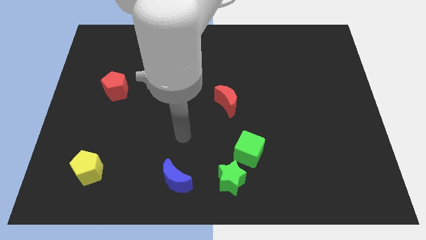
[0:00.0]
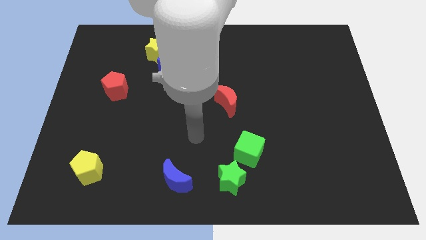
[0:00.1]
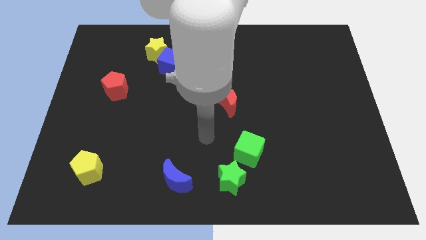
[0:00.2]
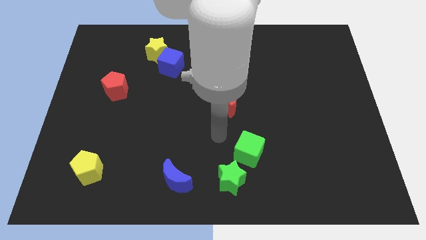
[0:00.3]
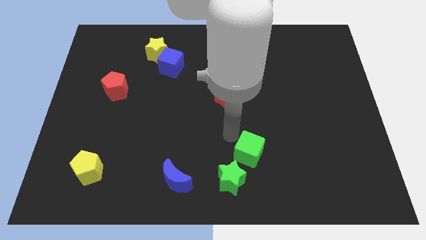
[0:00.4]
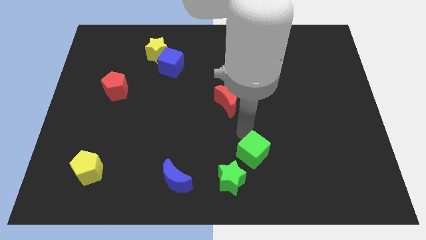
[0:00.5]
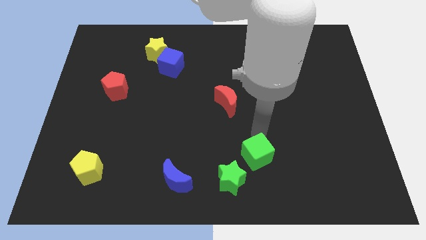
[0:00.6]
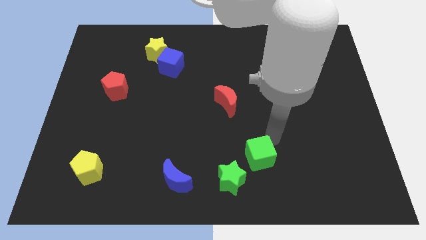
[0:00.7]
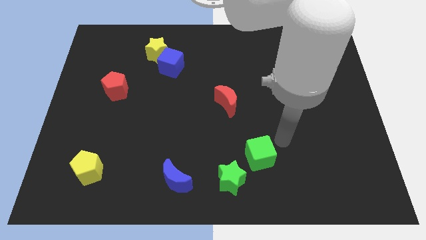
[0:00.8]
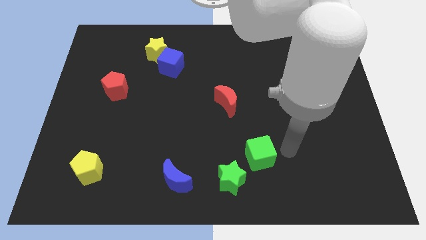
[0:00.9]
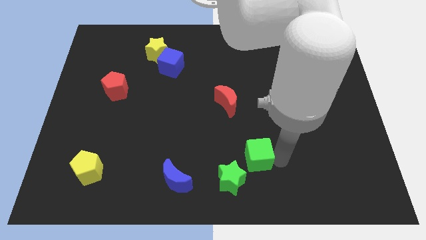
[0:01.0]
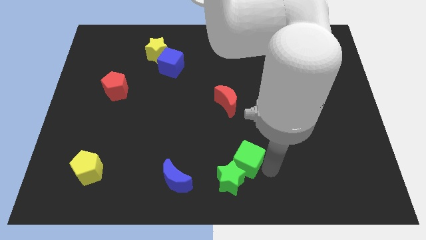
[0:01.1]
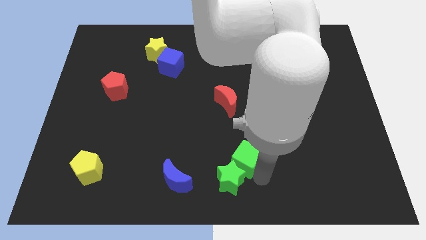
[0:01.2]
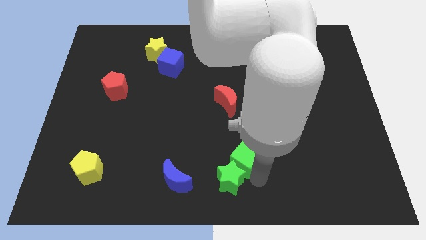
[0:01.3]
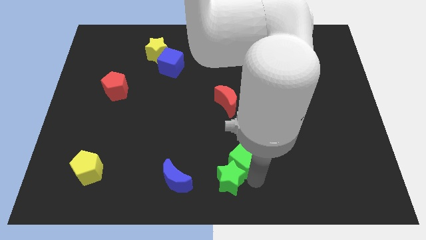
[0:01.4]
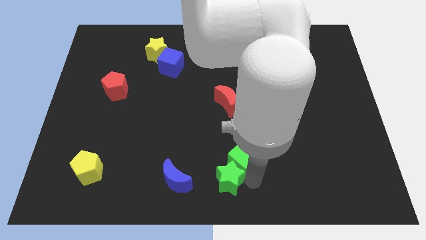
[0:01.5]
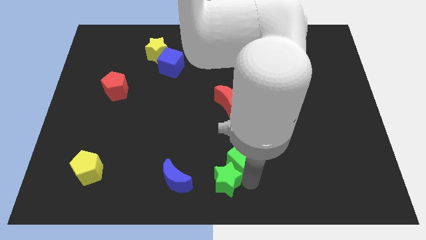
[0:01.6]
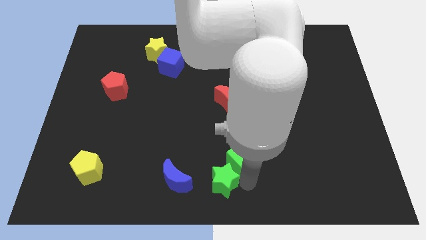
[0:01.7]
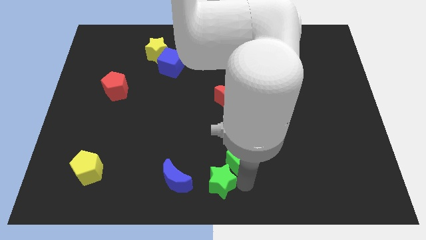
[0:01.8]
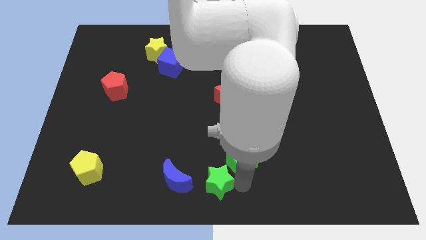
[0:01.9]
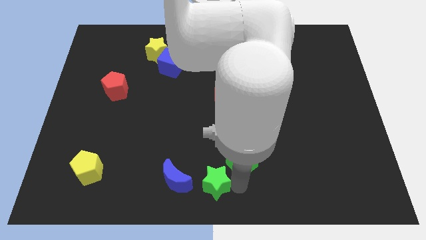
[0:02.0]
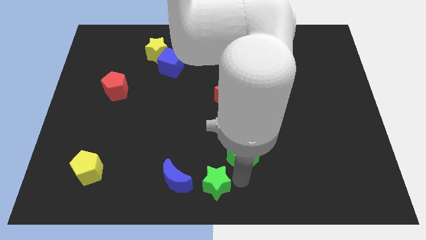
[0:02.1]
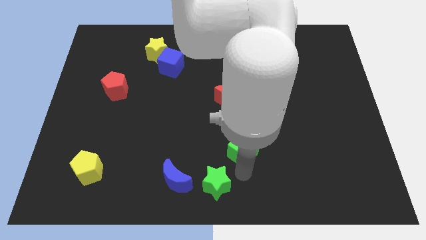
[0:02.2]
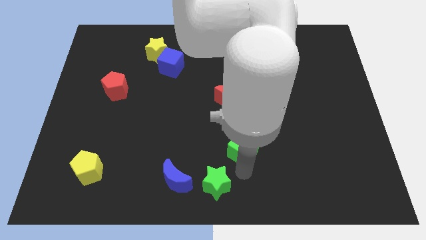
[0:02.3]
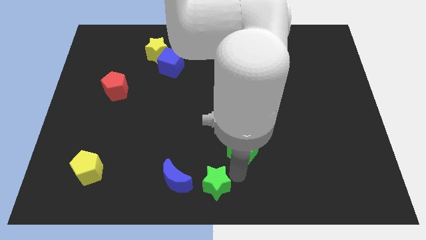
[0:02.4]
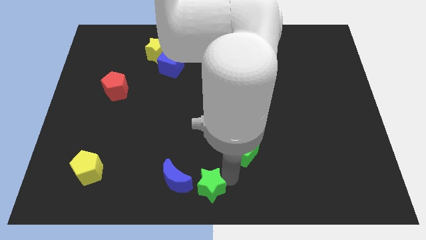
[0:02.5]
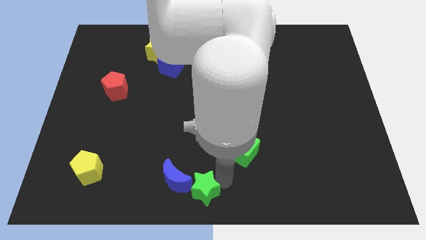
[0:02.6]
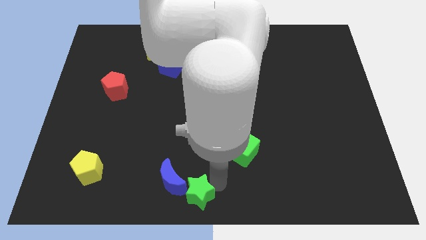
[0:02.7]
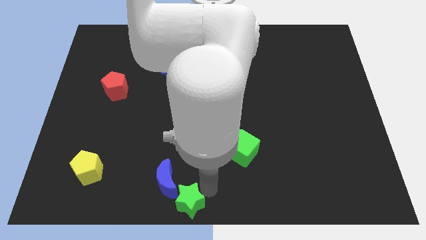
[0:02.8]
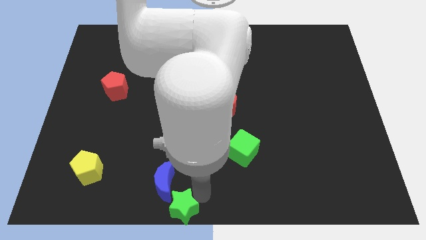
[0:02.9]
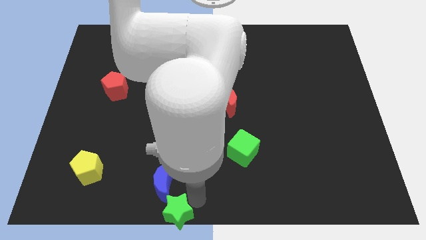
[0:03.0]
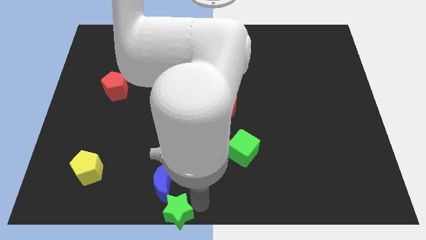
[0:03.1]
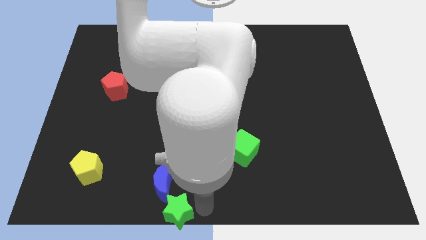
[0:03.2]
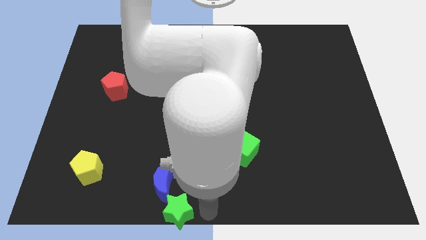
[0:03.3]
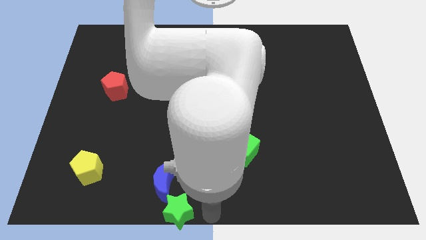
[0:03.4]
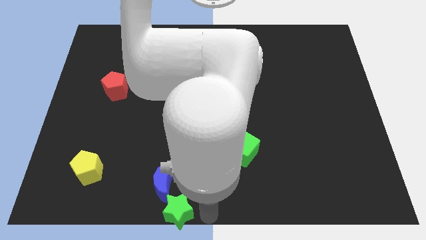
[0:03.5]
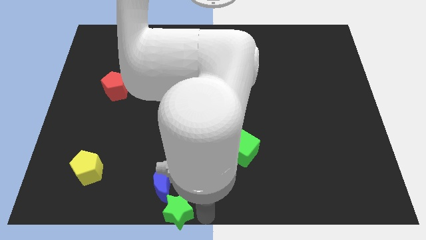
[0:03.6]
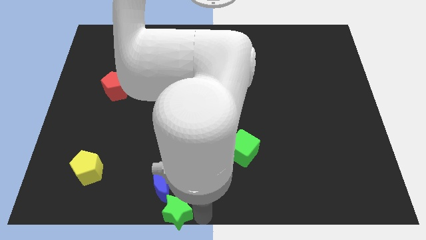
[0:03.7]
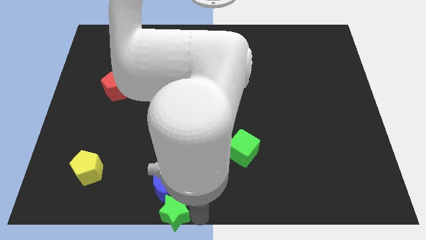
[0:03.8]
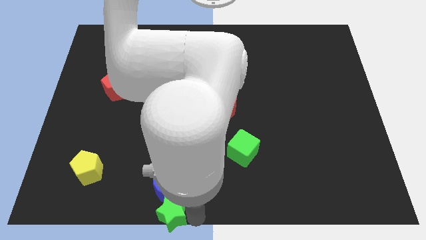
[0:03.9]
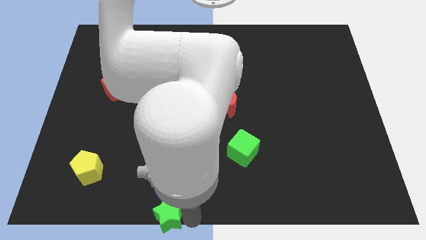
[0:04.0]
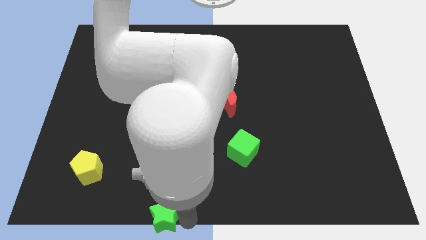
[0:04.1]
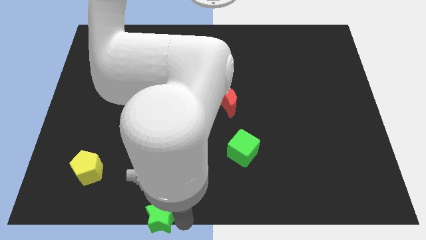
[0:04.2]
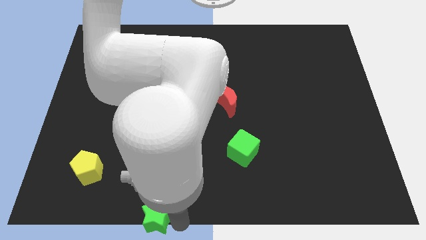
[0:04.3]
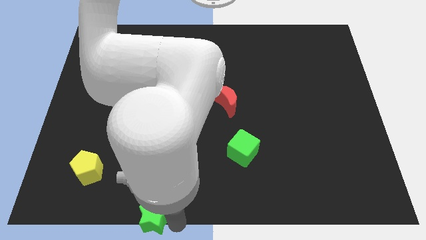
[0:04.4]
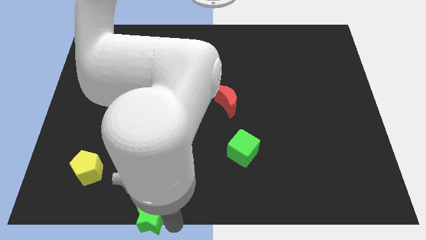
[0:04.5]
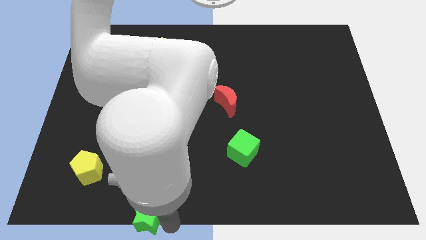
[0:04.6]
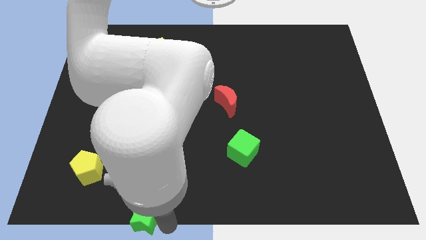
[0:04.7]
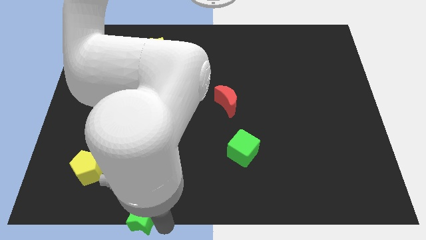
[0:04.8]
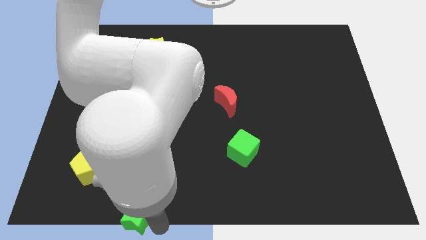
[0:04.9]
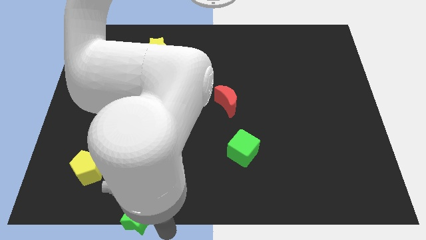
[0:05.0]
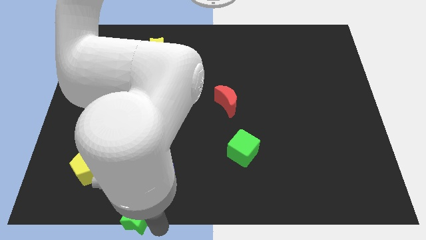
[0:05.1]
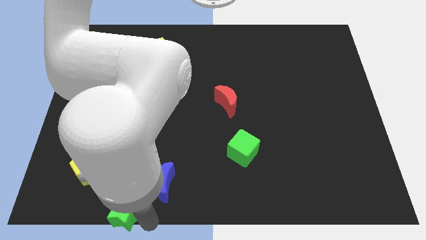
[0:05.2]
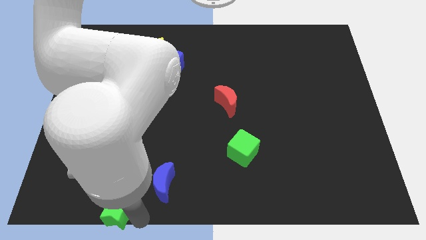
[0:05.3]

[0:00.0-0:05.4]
move the green star left

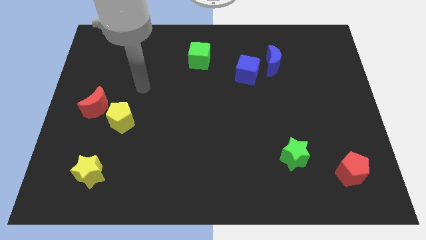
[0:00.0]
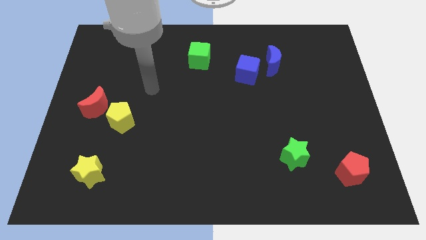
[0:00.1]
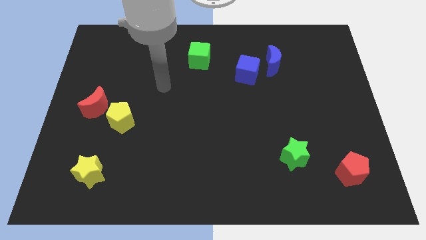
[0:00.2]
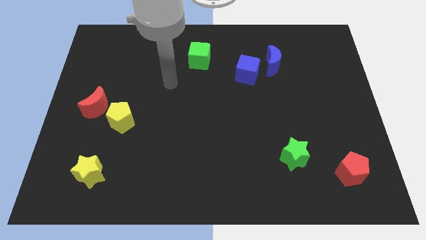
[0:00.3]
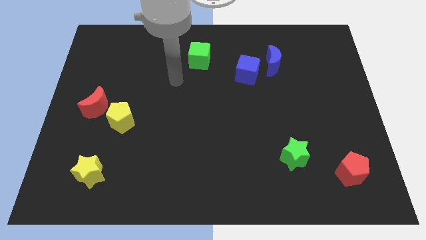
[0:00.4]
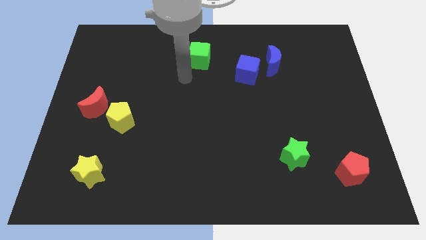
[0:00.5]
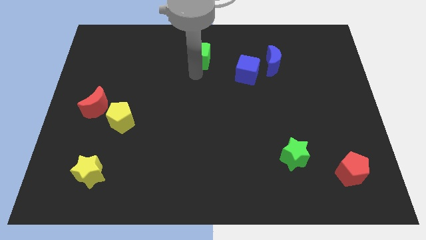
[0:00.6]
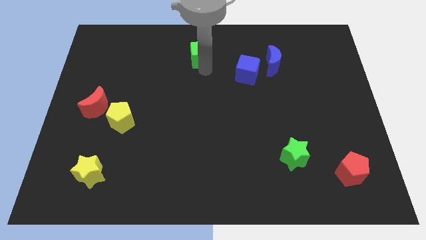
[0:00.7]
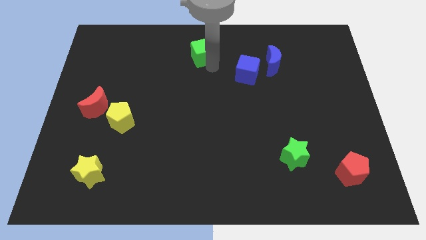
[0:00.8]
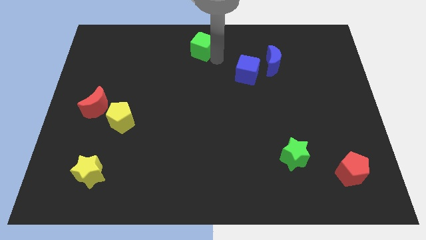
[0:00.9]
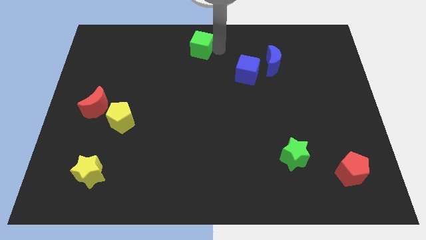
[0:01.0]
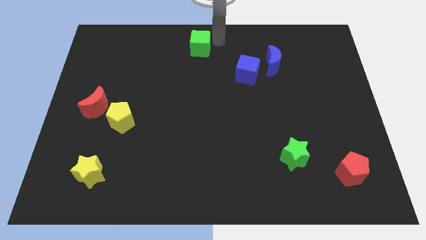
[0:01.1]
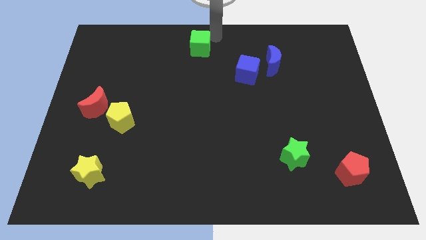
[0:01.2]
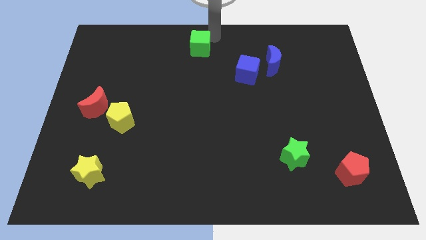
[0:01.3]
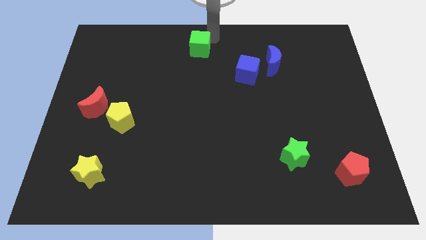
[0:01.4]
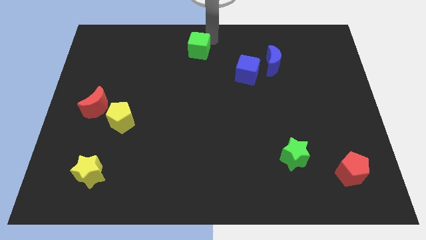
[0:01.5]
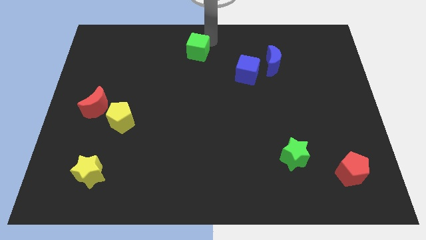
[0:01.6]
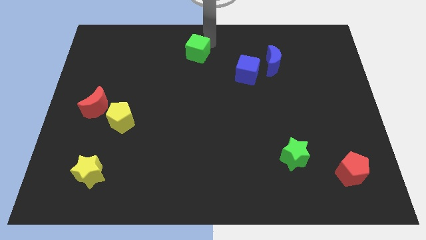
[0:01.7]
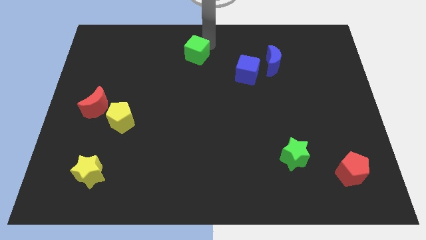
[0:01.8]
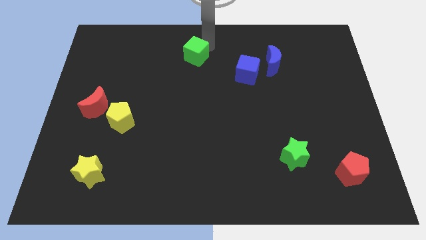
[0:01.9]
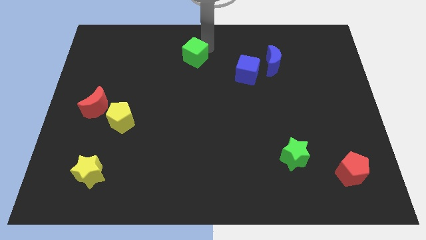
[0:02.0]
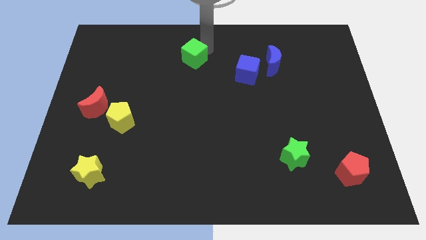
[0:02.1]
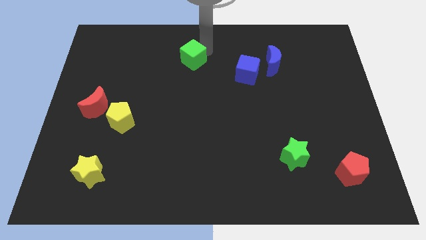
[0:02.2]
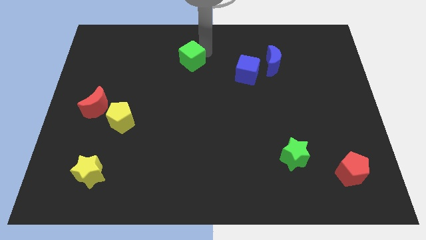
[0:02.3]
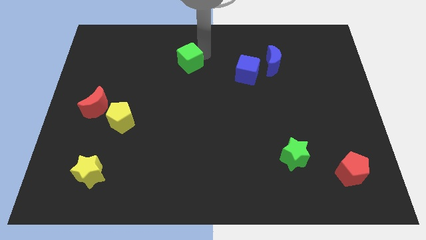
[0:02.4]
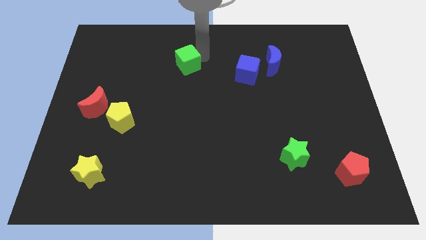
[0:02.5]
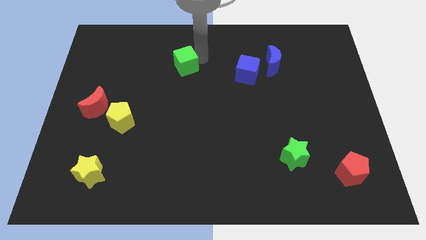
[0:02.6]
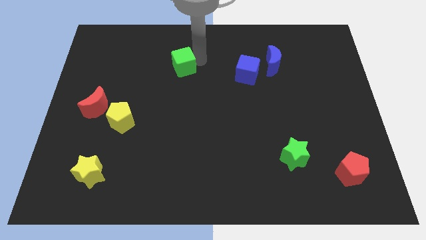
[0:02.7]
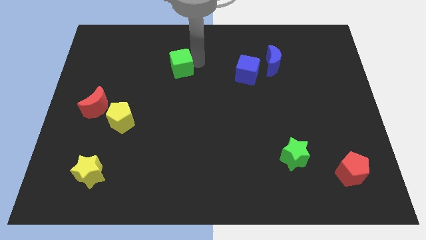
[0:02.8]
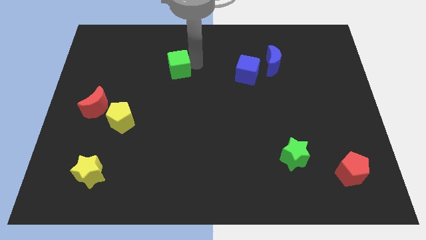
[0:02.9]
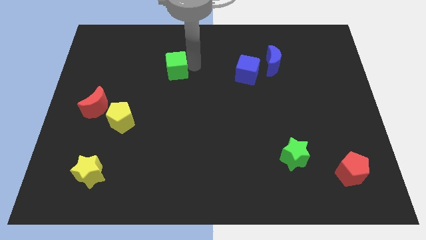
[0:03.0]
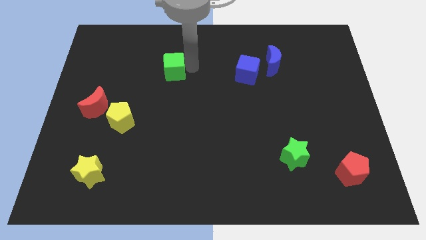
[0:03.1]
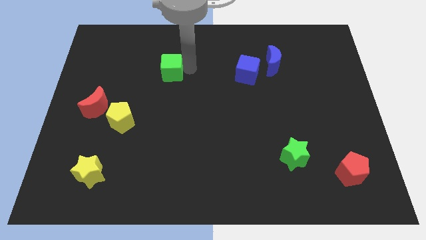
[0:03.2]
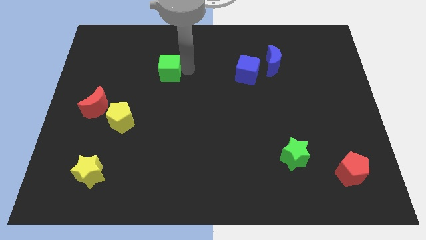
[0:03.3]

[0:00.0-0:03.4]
push the green cube somewhat left
